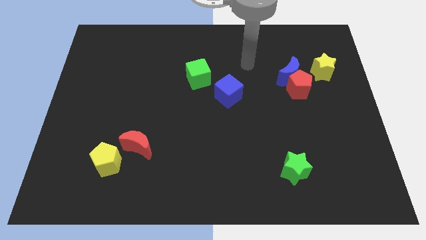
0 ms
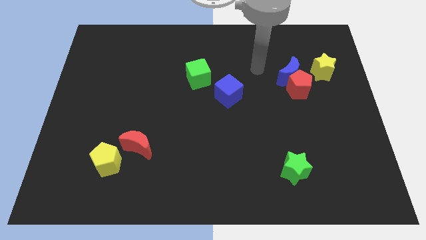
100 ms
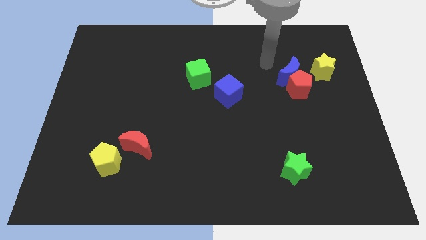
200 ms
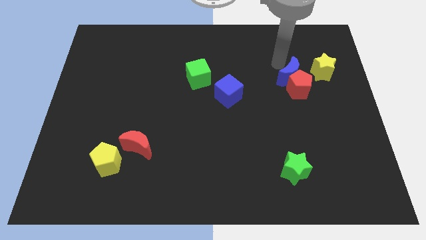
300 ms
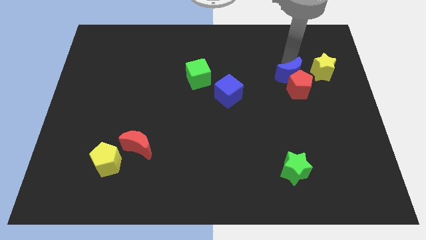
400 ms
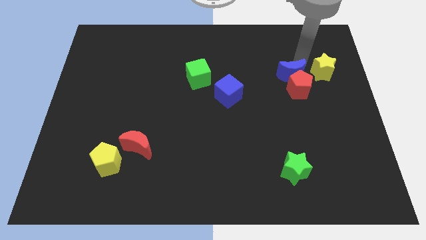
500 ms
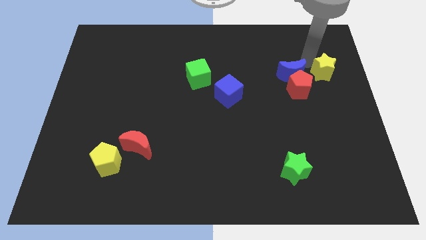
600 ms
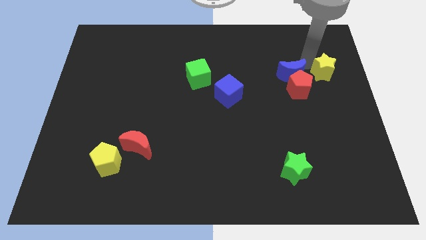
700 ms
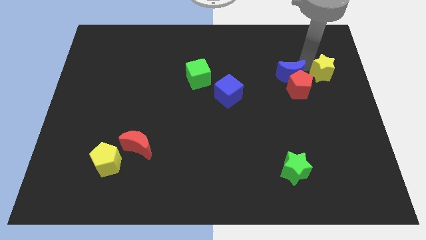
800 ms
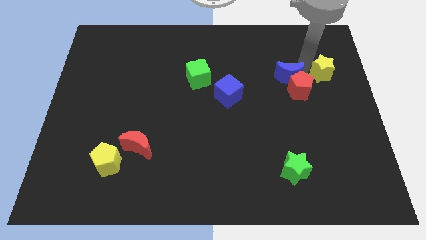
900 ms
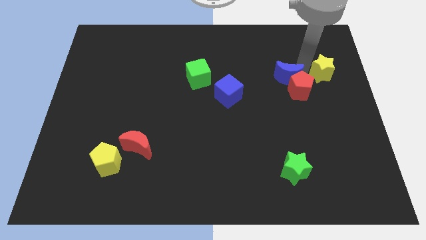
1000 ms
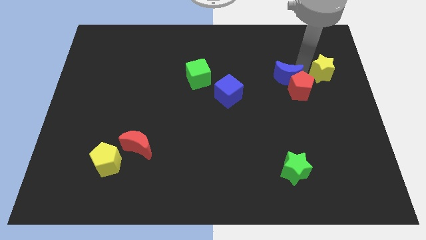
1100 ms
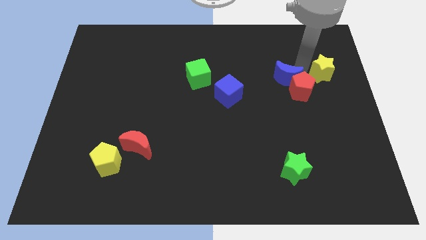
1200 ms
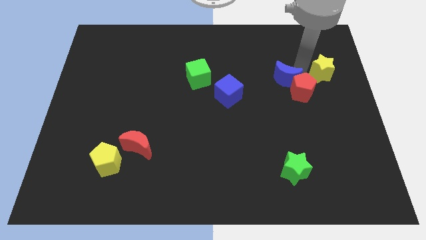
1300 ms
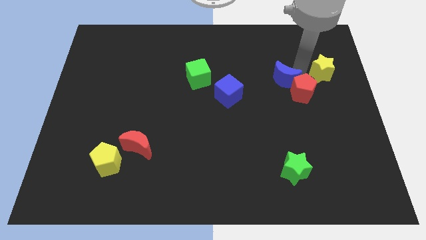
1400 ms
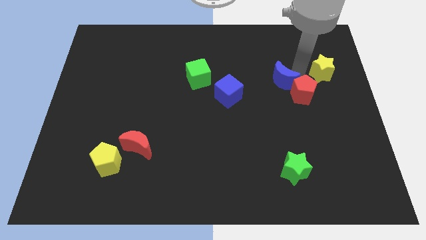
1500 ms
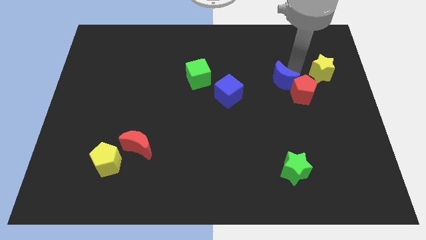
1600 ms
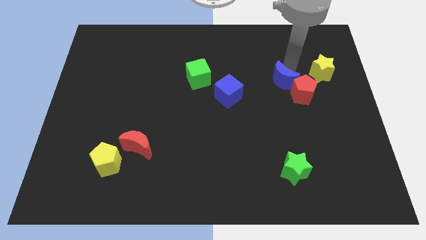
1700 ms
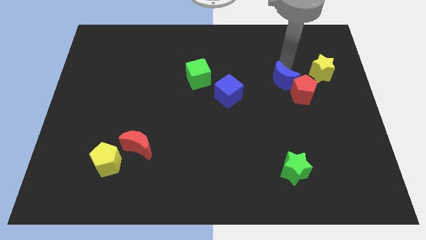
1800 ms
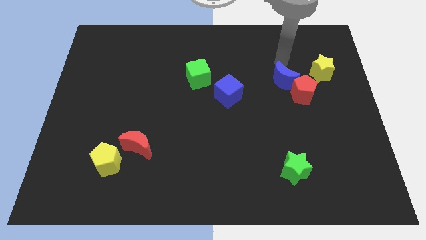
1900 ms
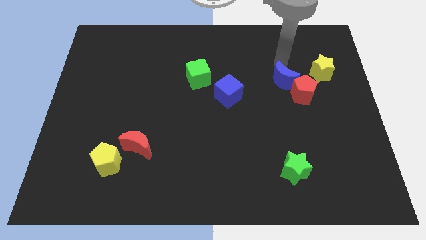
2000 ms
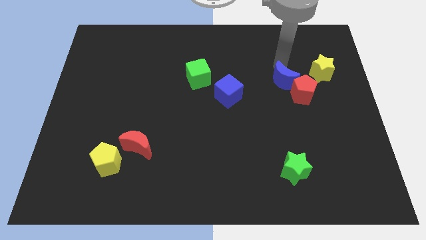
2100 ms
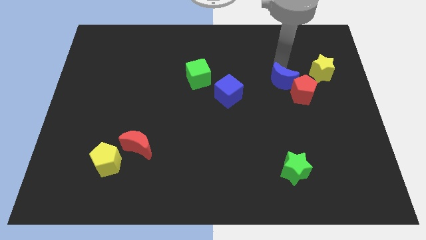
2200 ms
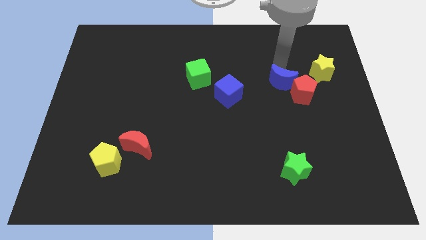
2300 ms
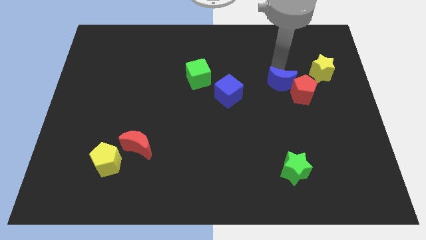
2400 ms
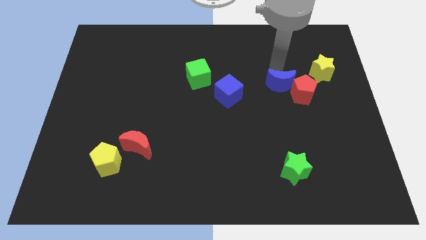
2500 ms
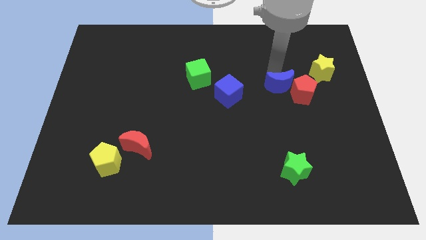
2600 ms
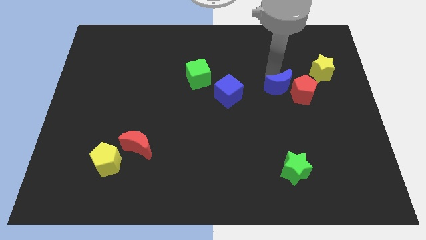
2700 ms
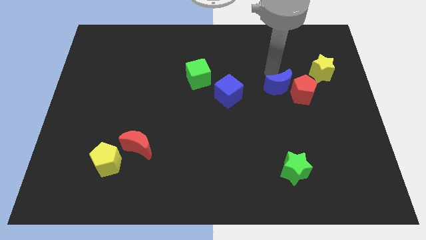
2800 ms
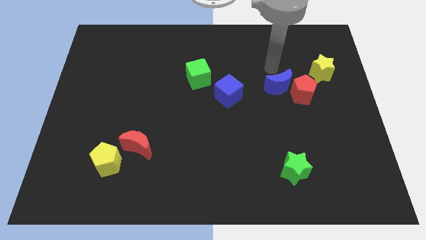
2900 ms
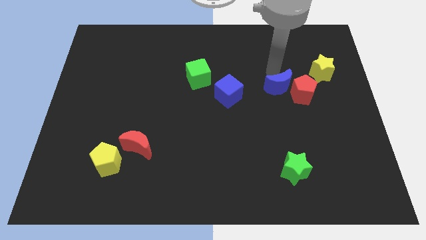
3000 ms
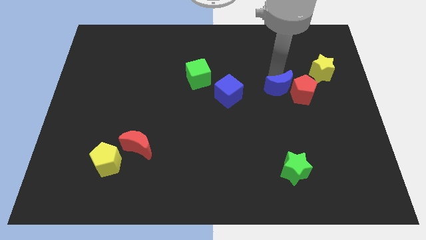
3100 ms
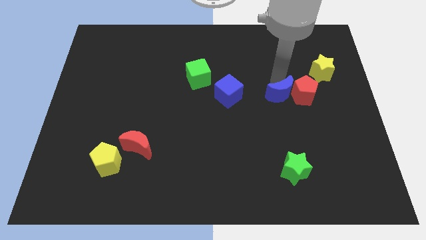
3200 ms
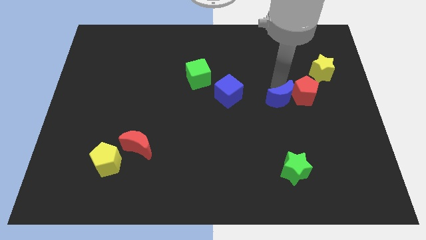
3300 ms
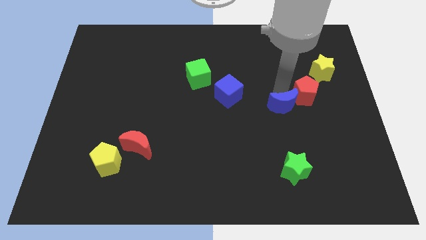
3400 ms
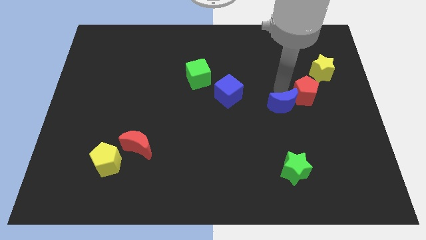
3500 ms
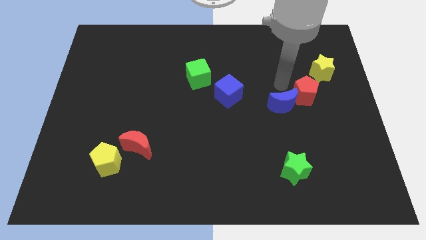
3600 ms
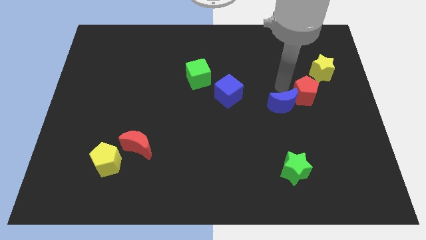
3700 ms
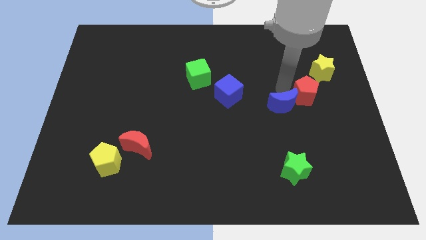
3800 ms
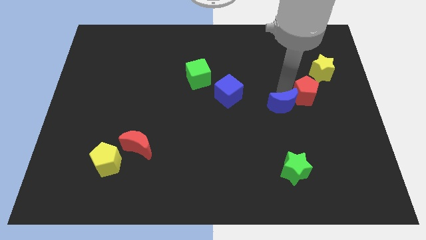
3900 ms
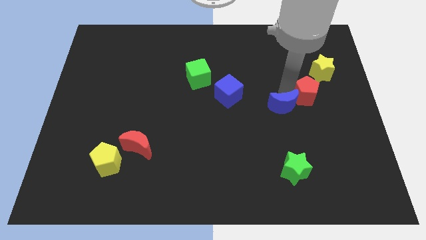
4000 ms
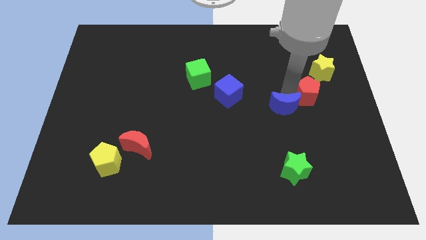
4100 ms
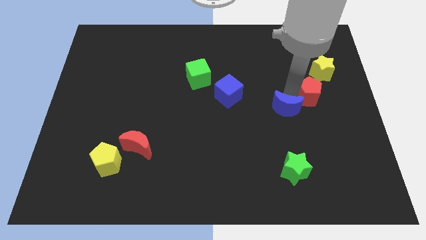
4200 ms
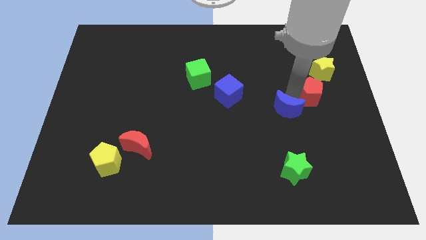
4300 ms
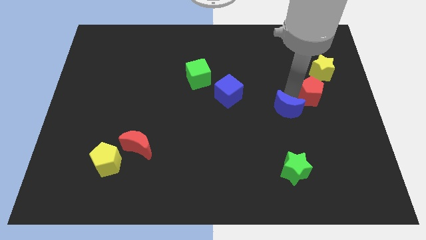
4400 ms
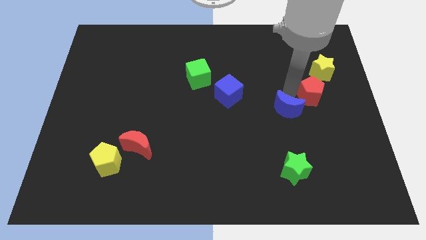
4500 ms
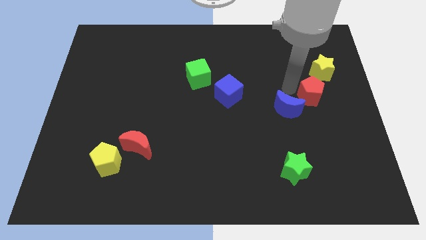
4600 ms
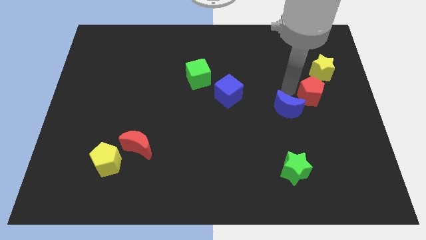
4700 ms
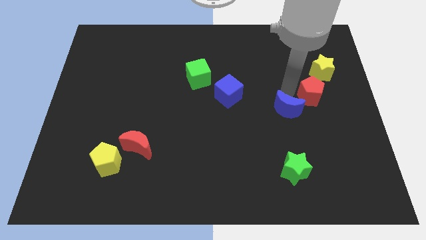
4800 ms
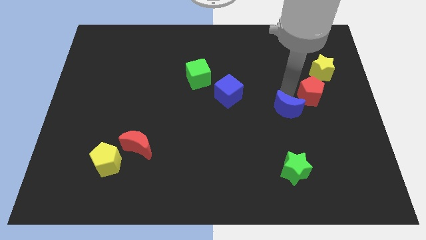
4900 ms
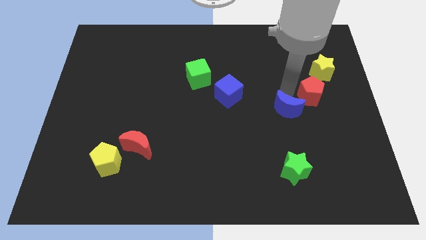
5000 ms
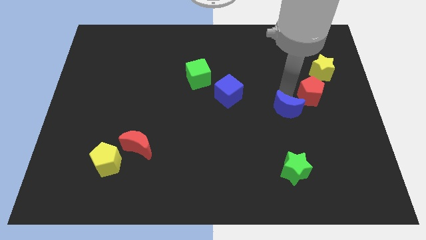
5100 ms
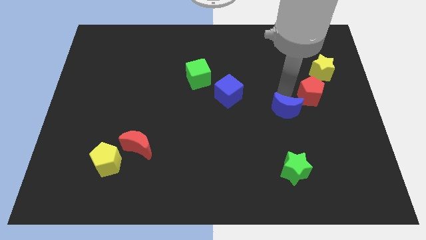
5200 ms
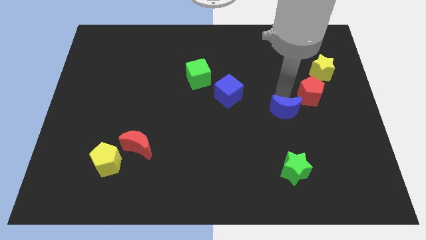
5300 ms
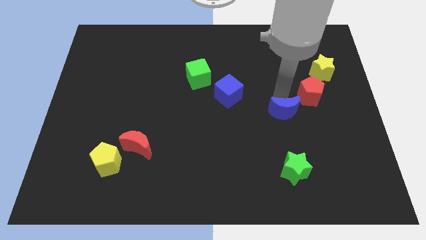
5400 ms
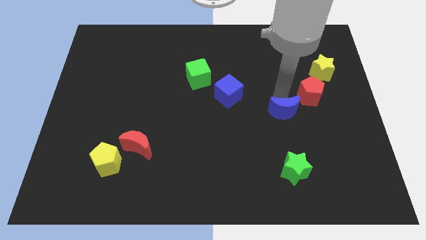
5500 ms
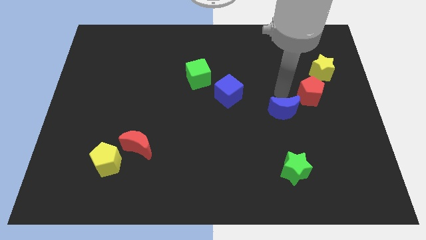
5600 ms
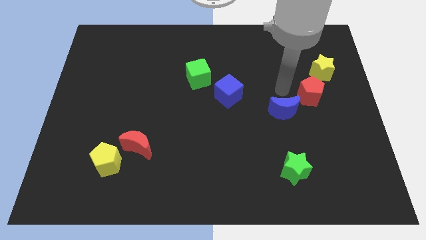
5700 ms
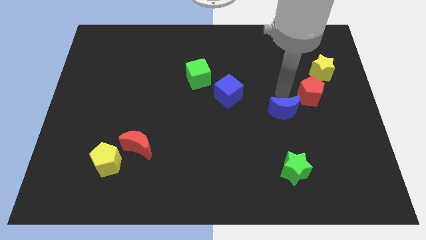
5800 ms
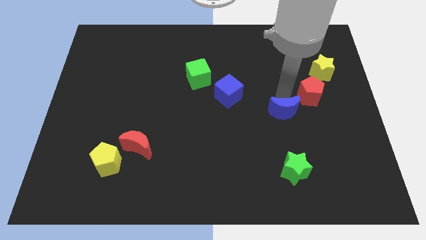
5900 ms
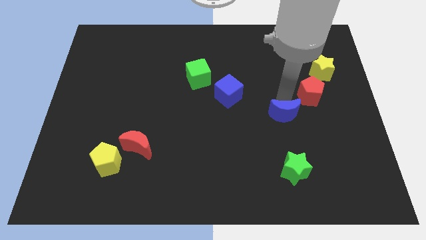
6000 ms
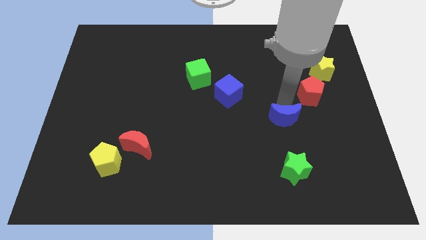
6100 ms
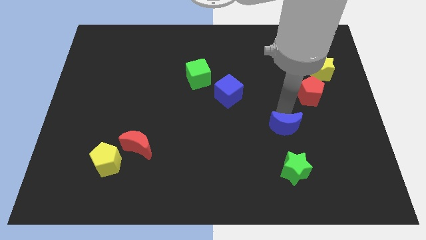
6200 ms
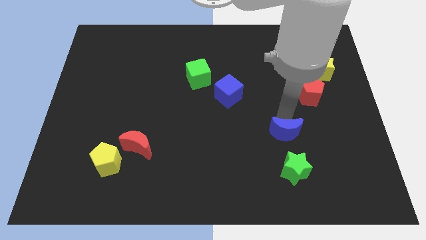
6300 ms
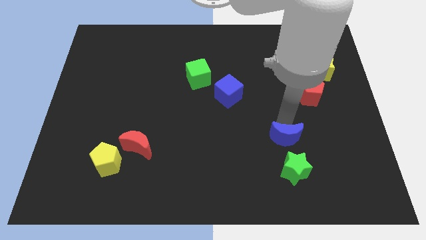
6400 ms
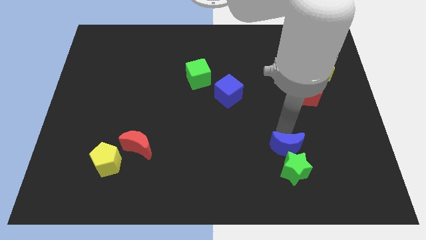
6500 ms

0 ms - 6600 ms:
put the blue moon to the green star
